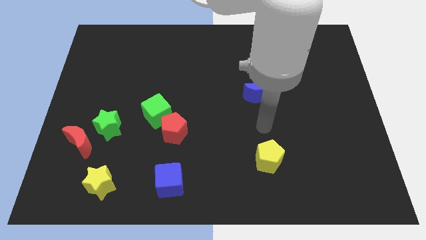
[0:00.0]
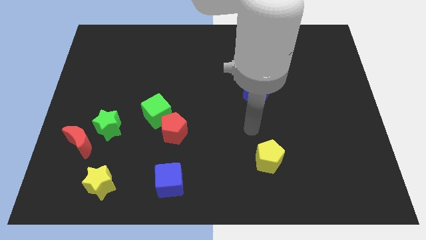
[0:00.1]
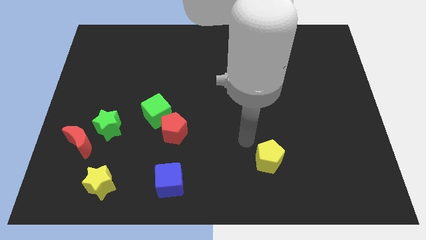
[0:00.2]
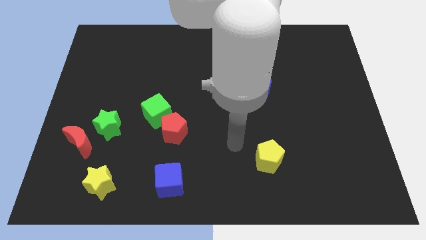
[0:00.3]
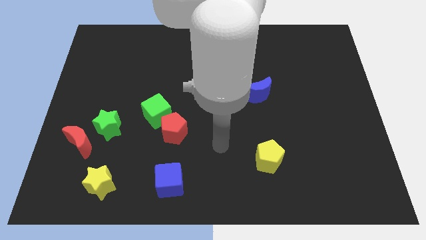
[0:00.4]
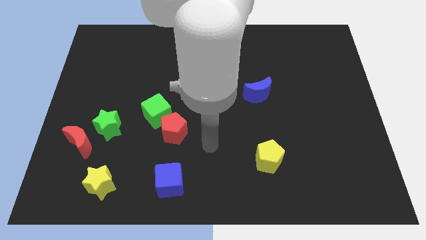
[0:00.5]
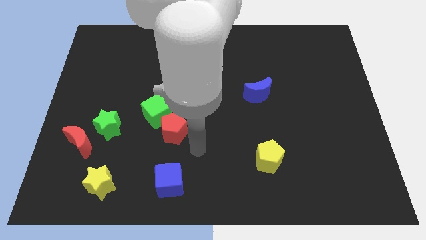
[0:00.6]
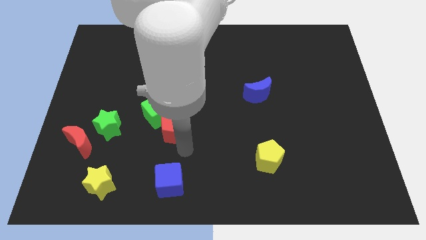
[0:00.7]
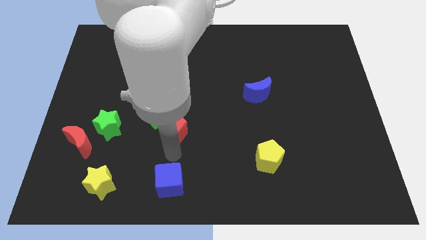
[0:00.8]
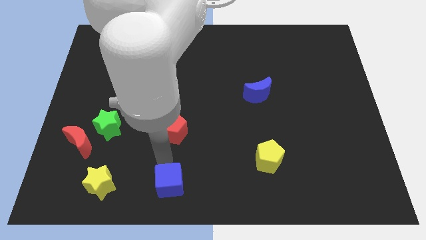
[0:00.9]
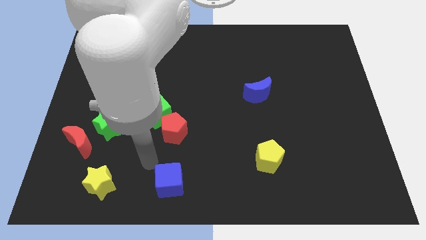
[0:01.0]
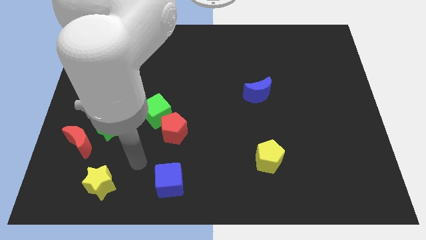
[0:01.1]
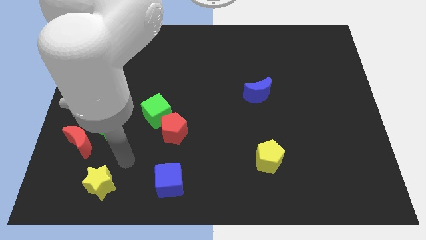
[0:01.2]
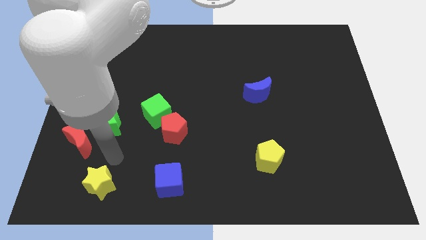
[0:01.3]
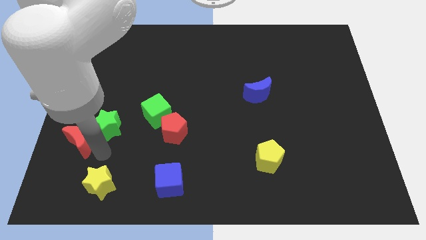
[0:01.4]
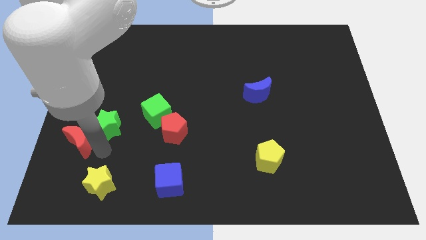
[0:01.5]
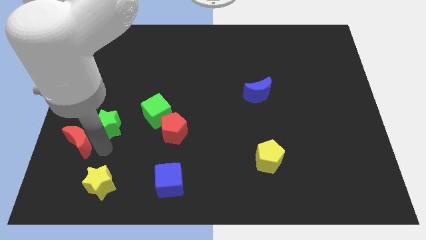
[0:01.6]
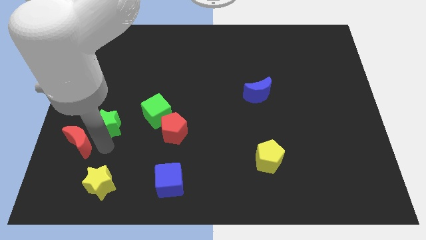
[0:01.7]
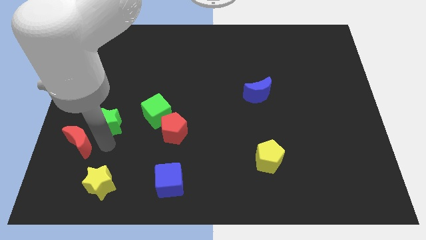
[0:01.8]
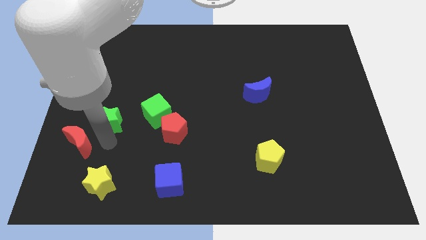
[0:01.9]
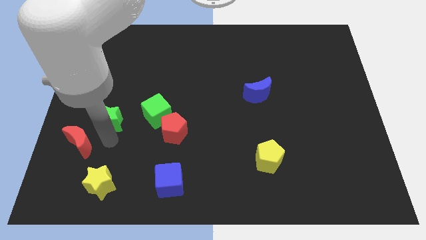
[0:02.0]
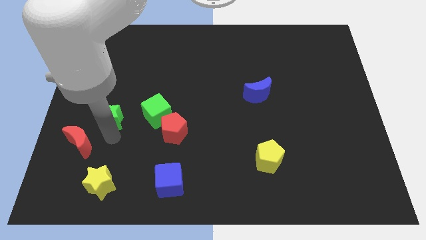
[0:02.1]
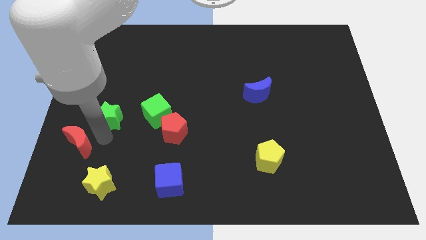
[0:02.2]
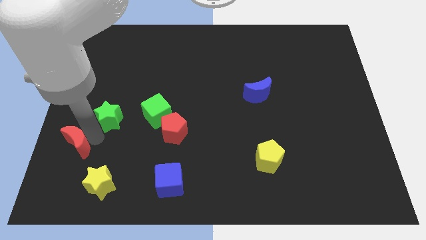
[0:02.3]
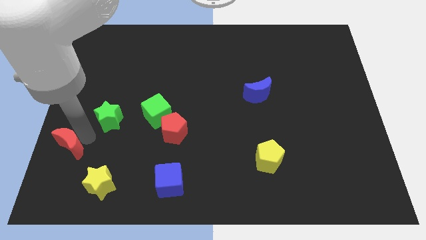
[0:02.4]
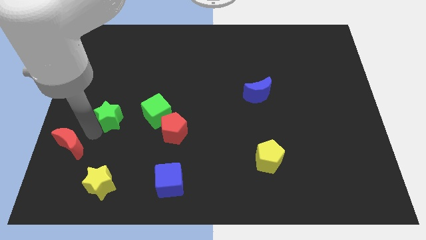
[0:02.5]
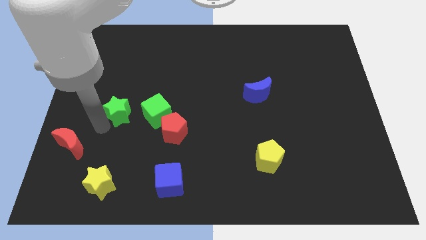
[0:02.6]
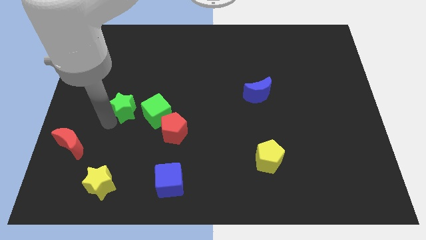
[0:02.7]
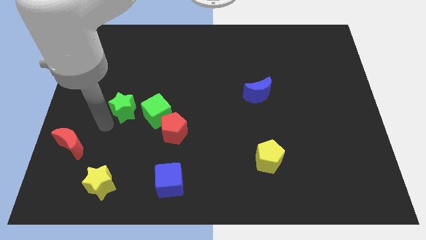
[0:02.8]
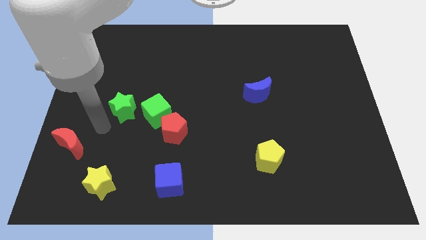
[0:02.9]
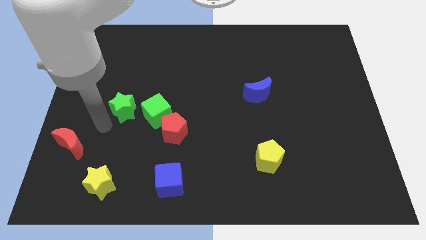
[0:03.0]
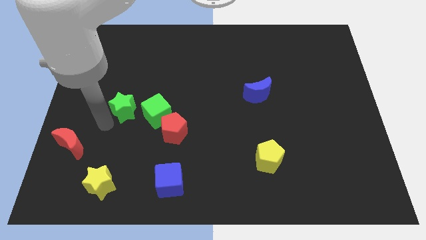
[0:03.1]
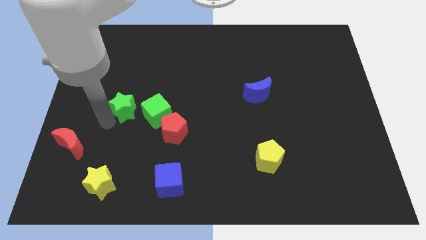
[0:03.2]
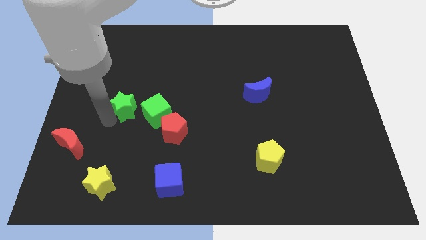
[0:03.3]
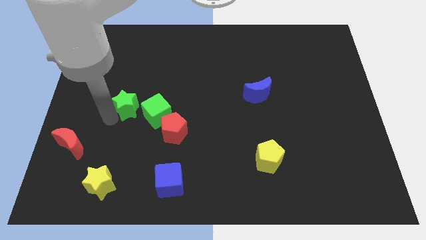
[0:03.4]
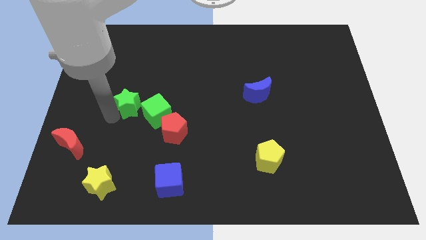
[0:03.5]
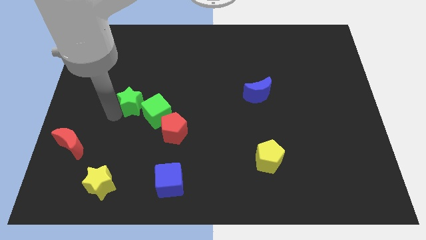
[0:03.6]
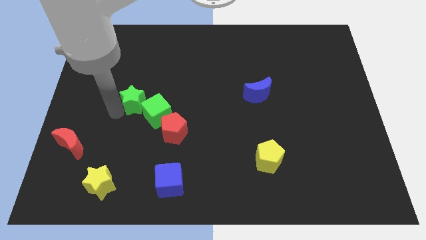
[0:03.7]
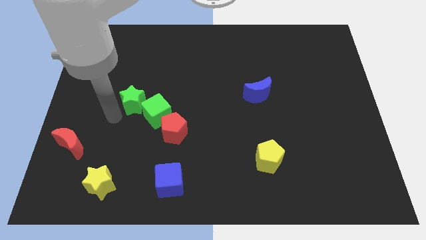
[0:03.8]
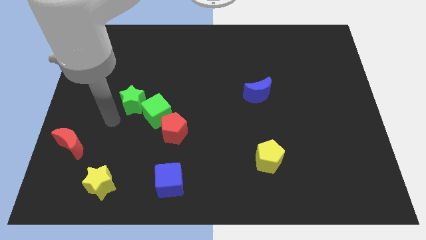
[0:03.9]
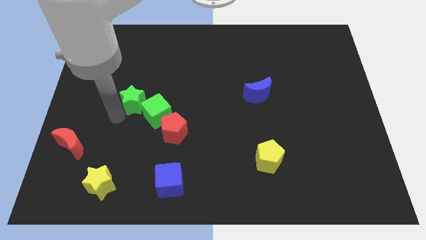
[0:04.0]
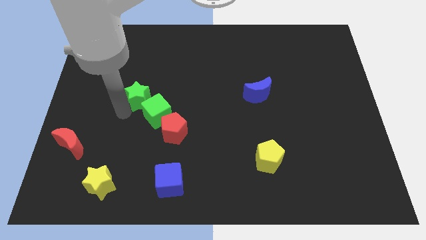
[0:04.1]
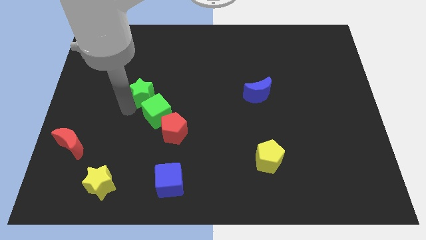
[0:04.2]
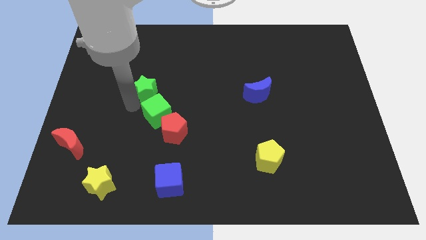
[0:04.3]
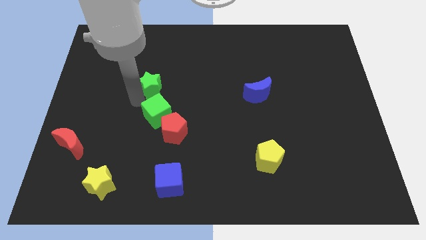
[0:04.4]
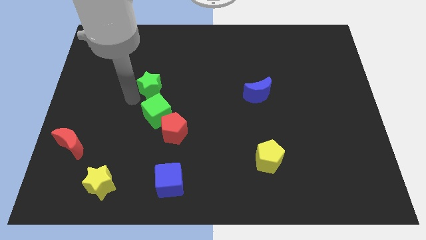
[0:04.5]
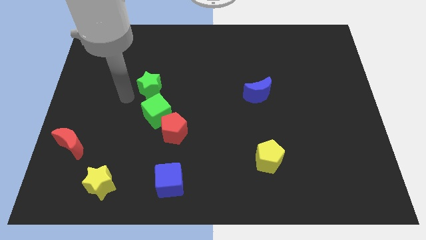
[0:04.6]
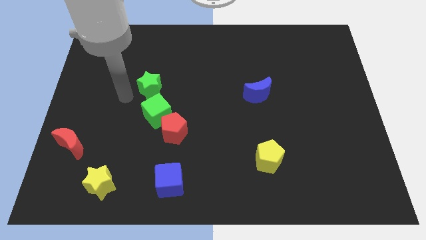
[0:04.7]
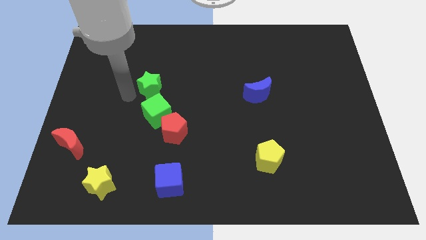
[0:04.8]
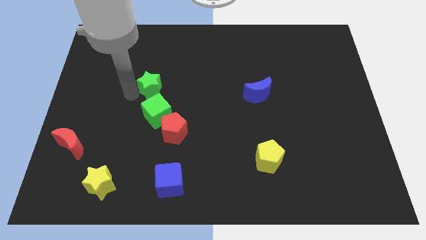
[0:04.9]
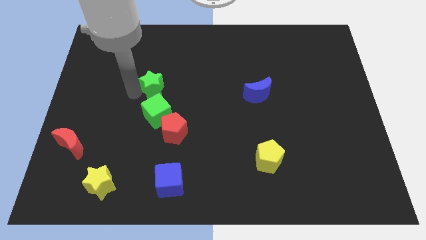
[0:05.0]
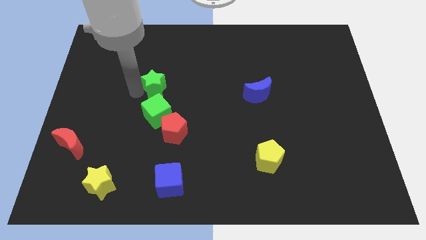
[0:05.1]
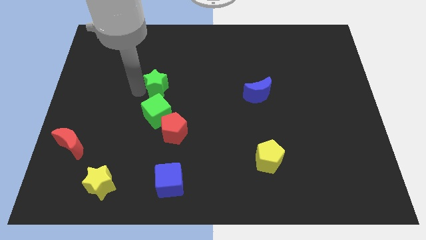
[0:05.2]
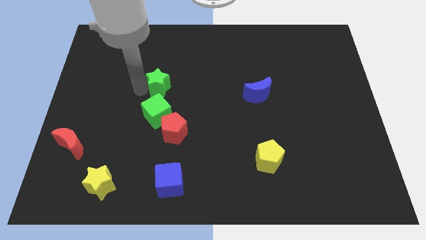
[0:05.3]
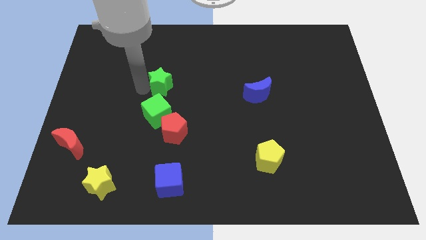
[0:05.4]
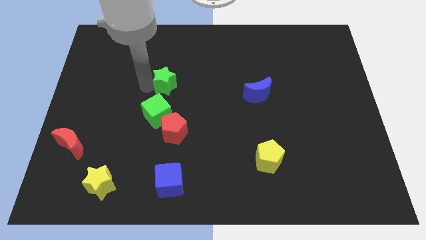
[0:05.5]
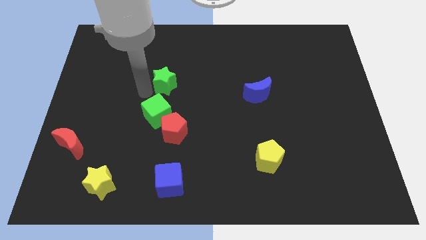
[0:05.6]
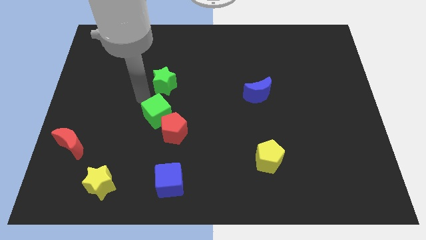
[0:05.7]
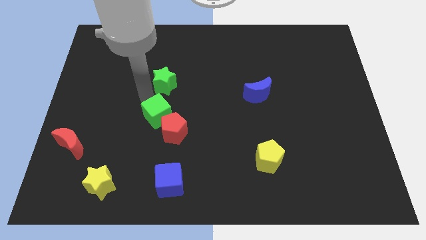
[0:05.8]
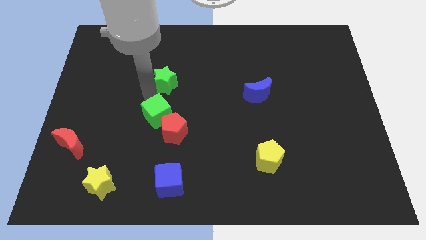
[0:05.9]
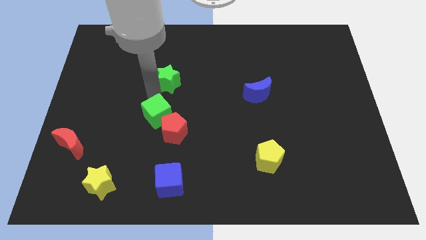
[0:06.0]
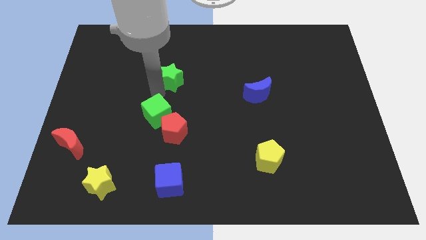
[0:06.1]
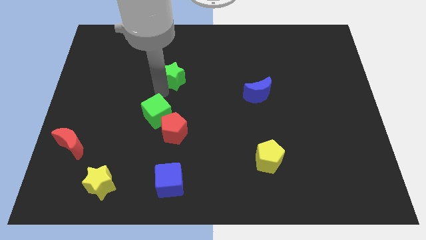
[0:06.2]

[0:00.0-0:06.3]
slide the green star up and right

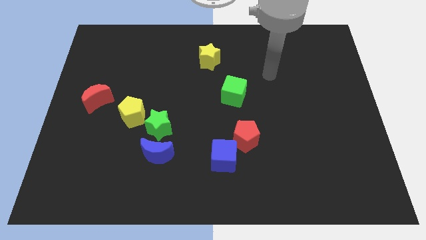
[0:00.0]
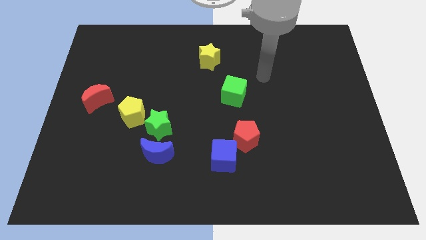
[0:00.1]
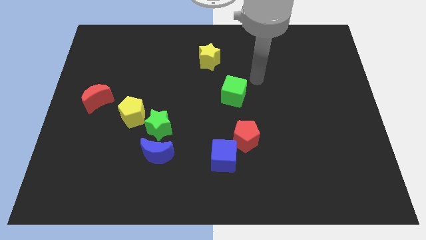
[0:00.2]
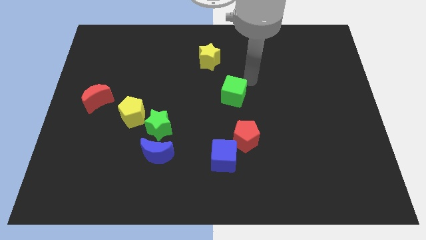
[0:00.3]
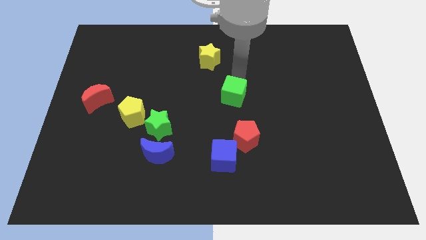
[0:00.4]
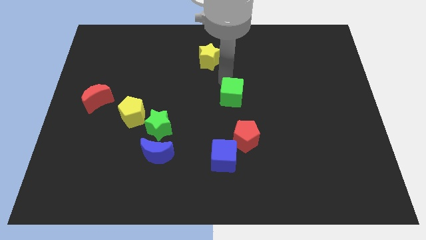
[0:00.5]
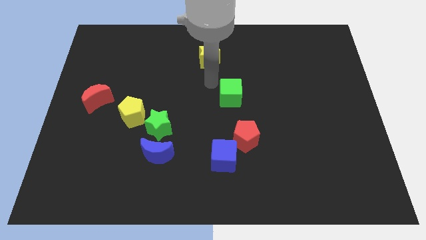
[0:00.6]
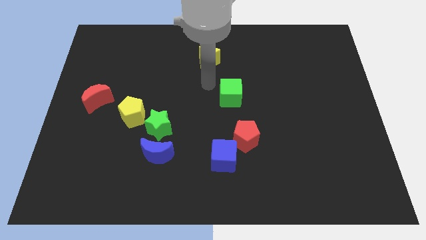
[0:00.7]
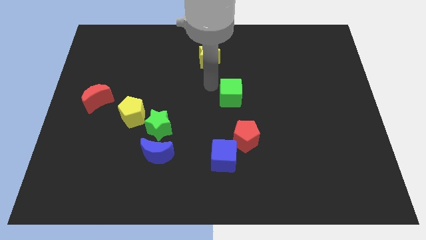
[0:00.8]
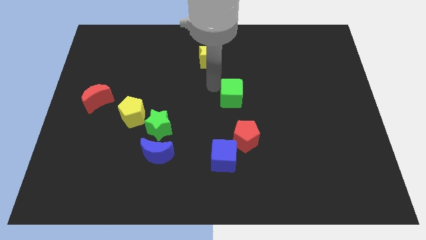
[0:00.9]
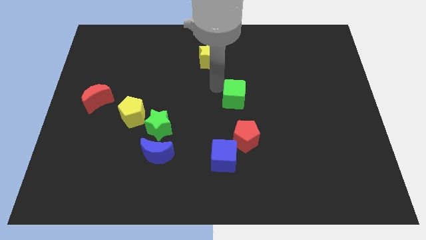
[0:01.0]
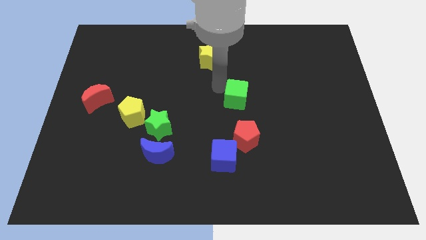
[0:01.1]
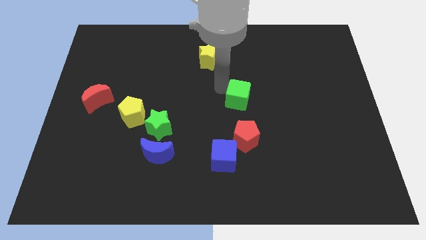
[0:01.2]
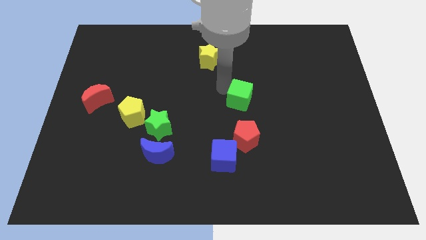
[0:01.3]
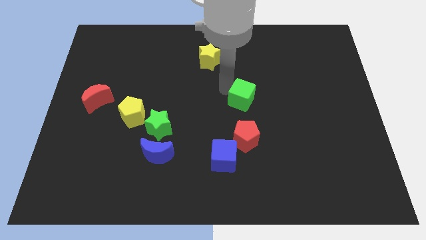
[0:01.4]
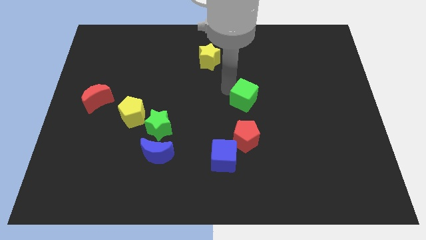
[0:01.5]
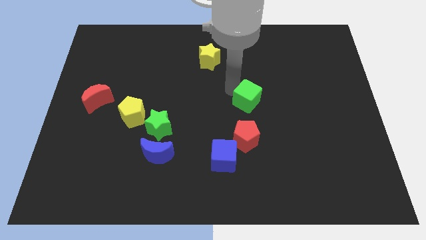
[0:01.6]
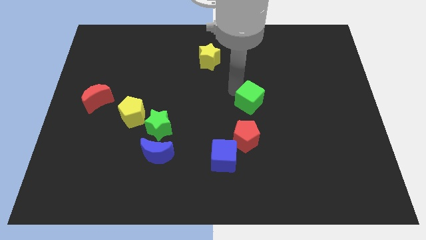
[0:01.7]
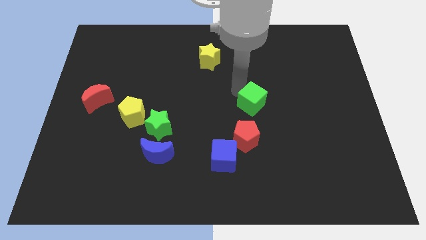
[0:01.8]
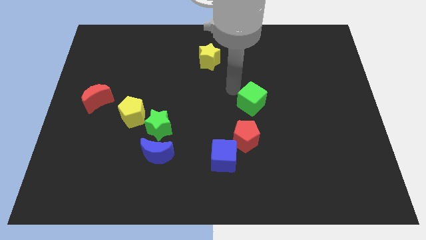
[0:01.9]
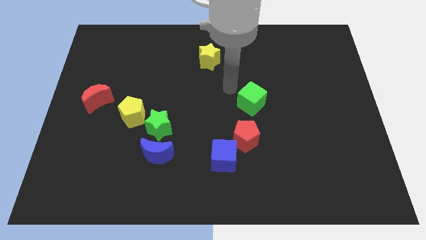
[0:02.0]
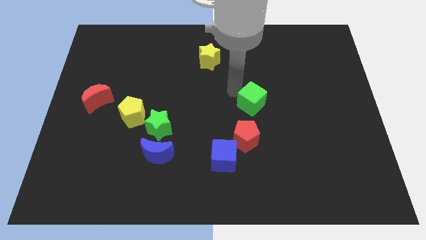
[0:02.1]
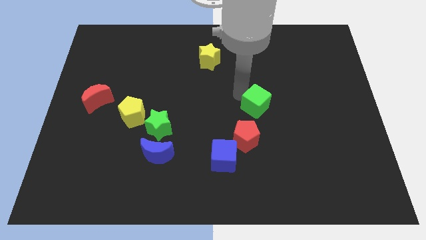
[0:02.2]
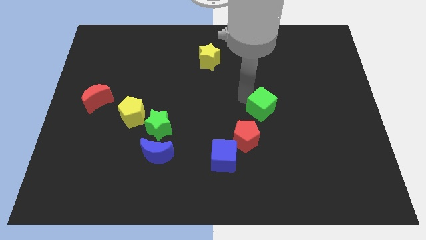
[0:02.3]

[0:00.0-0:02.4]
slightly push the green cube down and then right
